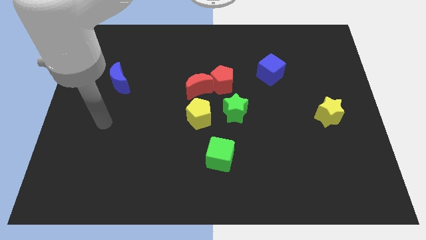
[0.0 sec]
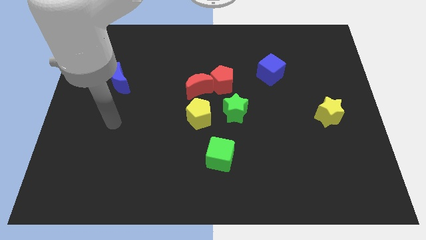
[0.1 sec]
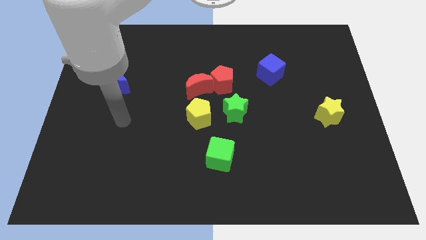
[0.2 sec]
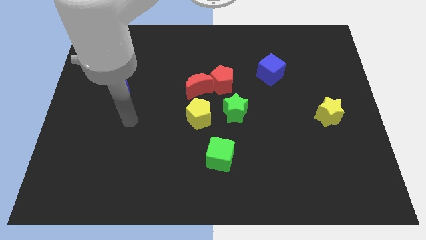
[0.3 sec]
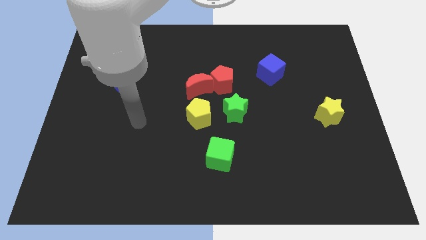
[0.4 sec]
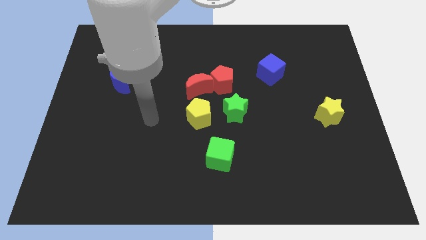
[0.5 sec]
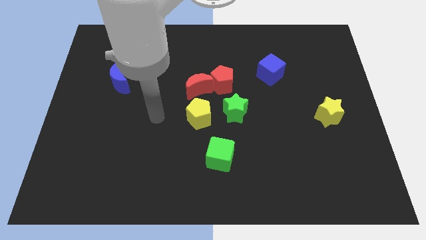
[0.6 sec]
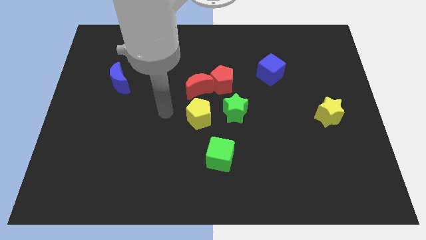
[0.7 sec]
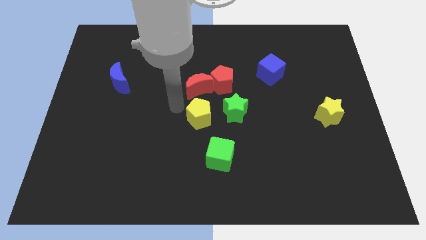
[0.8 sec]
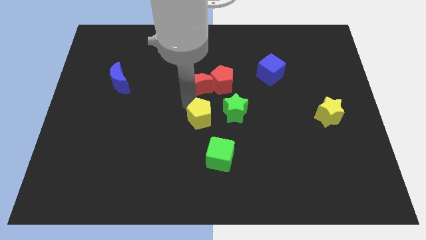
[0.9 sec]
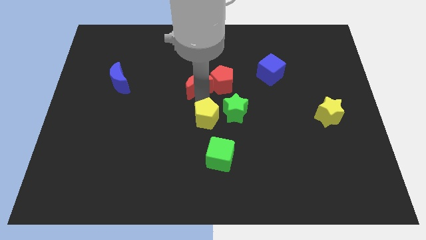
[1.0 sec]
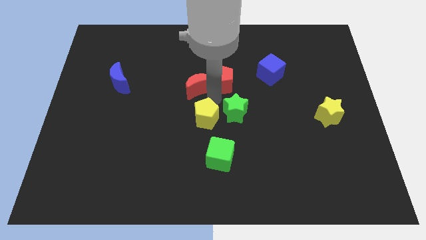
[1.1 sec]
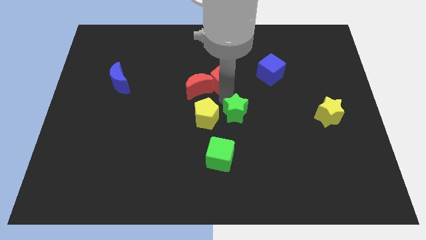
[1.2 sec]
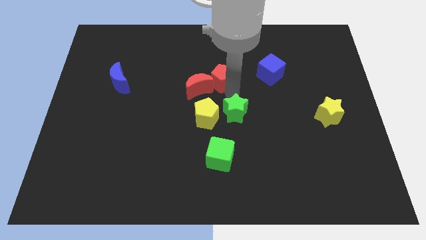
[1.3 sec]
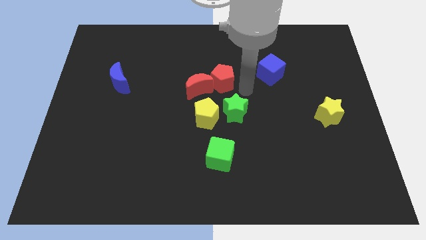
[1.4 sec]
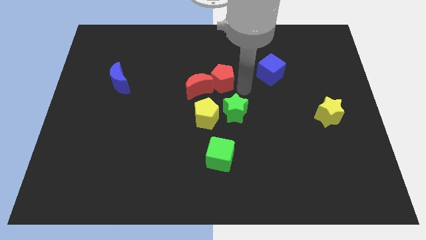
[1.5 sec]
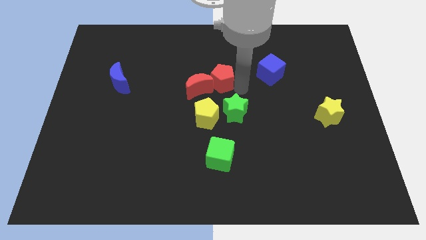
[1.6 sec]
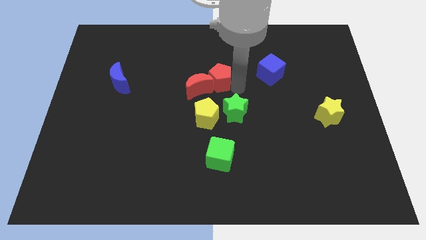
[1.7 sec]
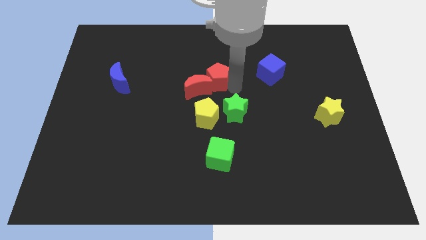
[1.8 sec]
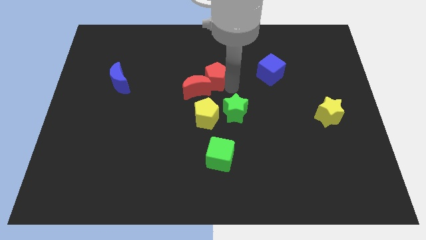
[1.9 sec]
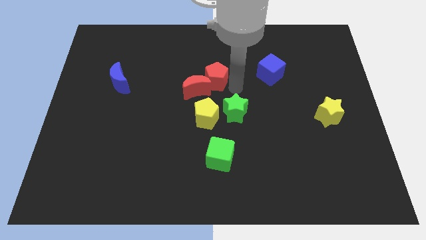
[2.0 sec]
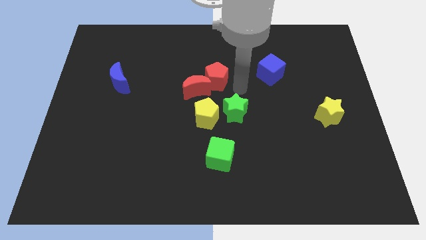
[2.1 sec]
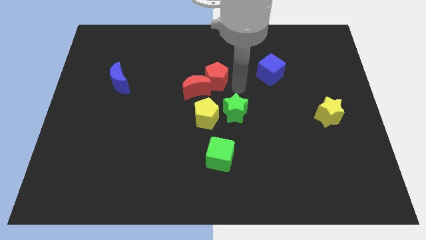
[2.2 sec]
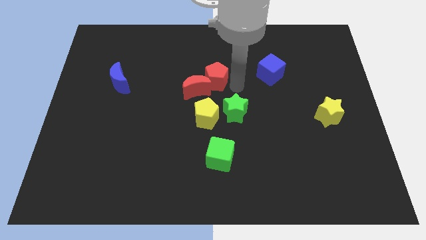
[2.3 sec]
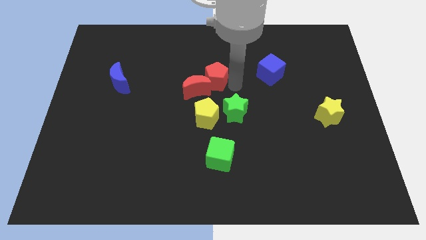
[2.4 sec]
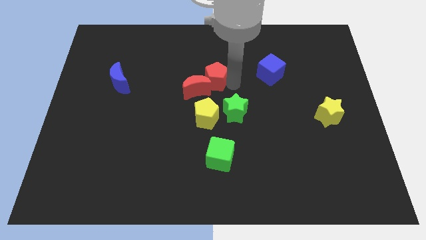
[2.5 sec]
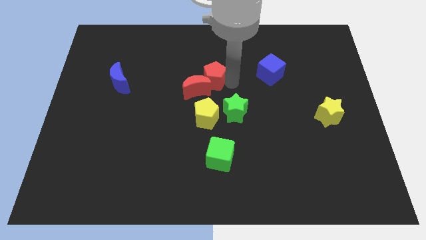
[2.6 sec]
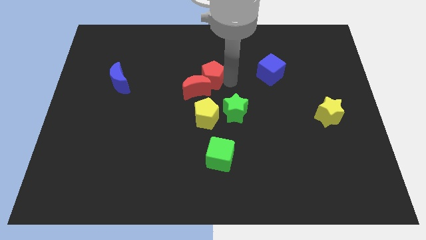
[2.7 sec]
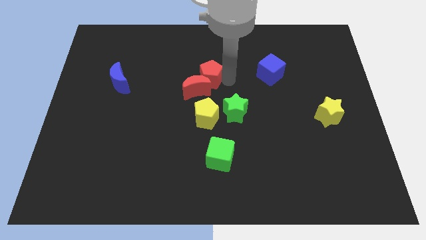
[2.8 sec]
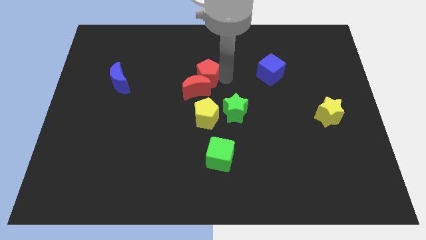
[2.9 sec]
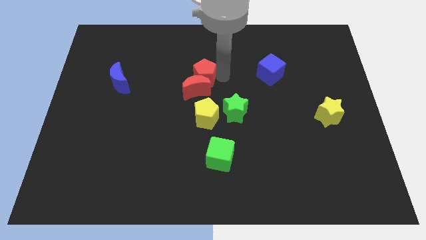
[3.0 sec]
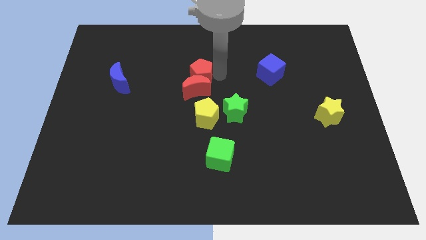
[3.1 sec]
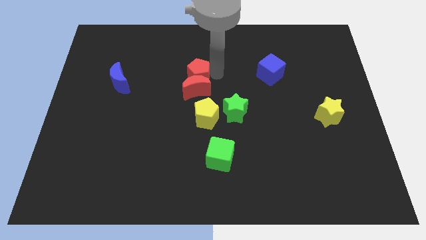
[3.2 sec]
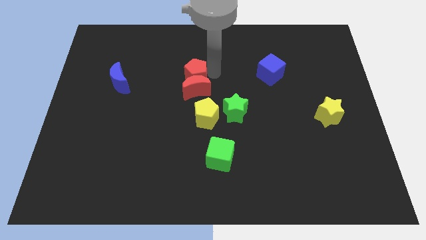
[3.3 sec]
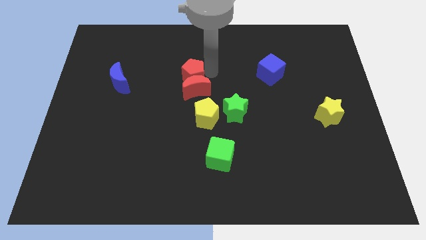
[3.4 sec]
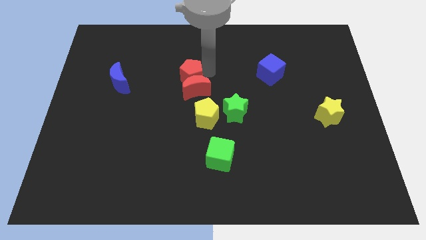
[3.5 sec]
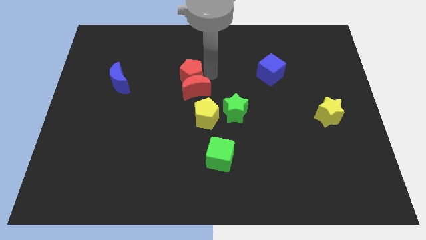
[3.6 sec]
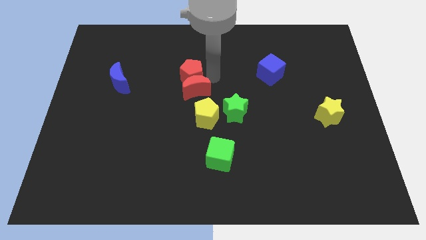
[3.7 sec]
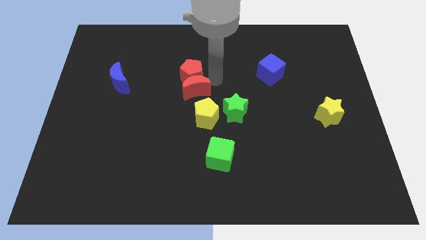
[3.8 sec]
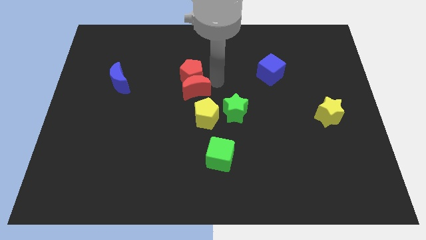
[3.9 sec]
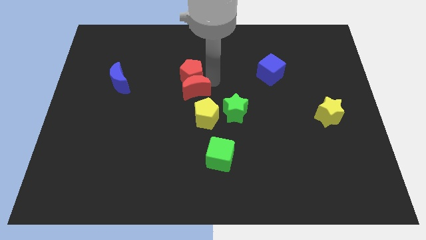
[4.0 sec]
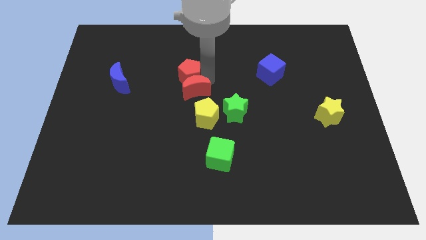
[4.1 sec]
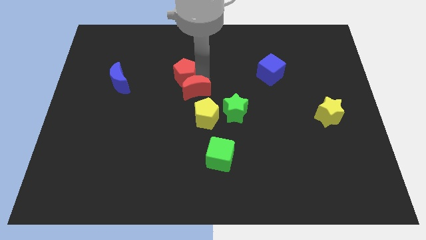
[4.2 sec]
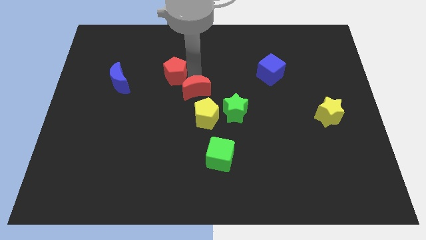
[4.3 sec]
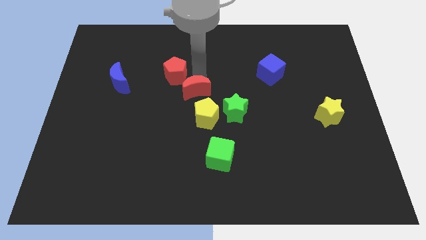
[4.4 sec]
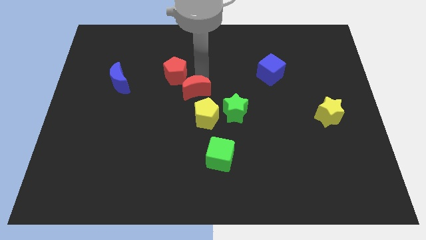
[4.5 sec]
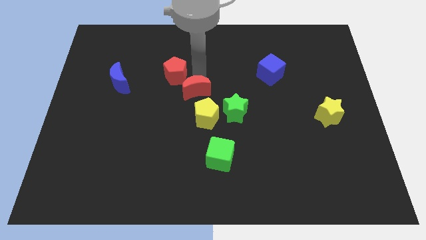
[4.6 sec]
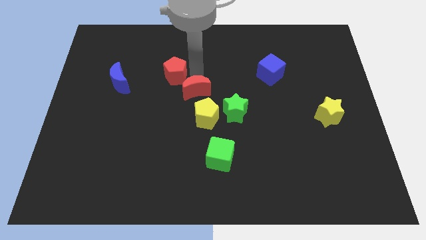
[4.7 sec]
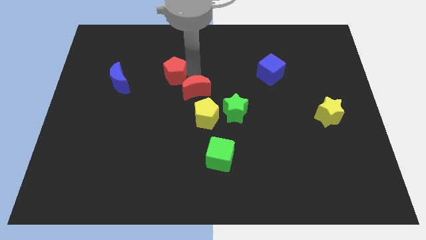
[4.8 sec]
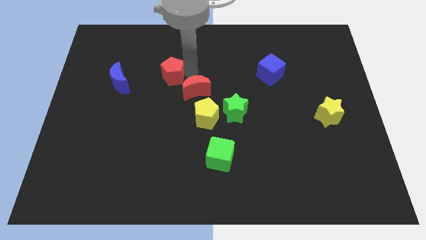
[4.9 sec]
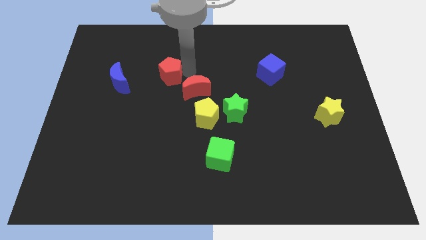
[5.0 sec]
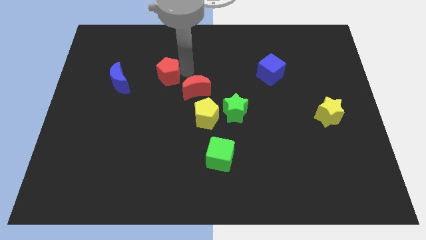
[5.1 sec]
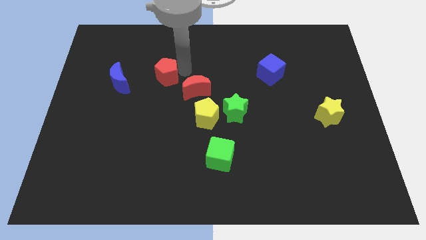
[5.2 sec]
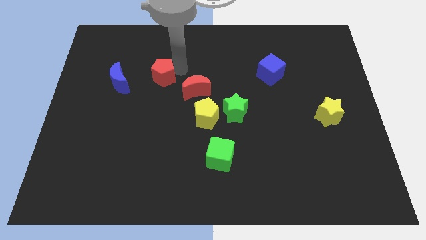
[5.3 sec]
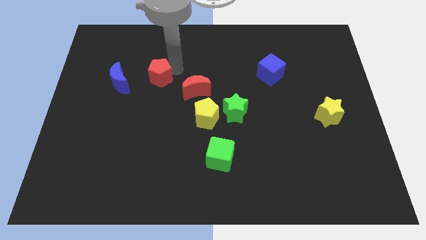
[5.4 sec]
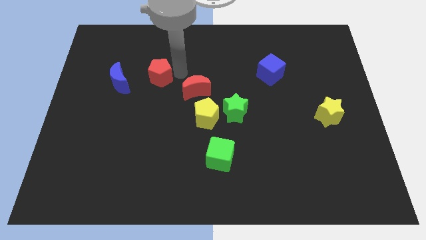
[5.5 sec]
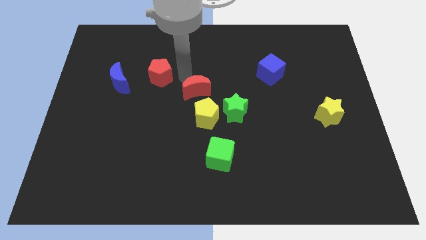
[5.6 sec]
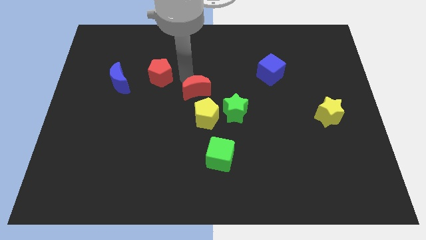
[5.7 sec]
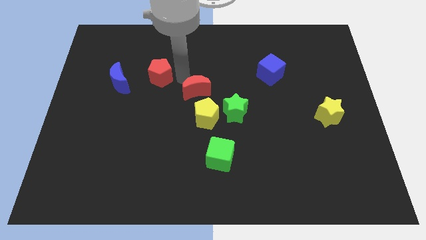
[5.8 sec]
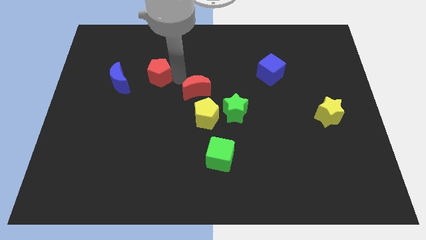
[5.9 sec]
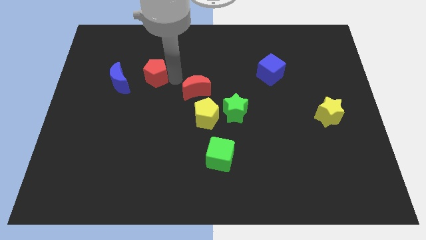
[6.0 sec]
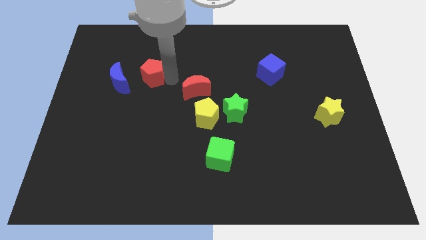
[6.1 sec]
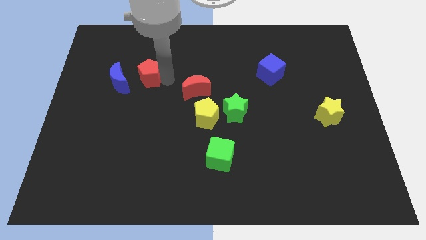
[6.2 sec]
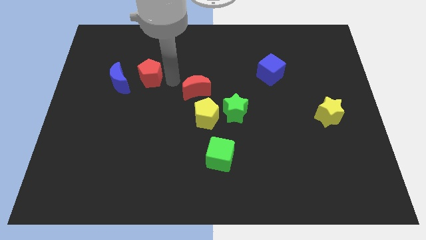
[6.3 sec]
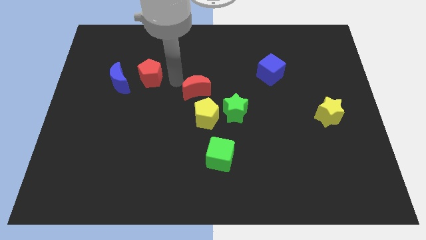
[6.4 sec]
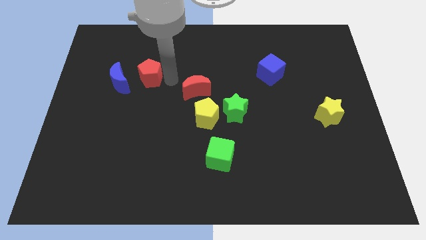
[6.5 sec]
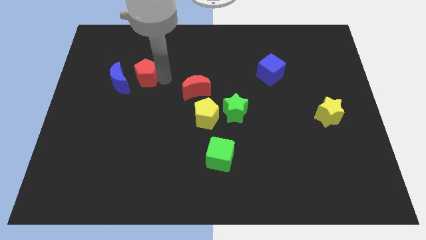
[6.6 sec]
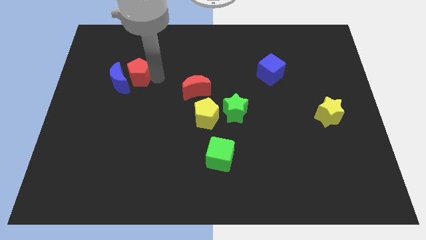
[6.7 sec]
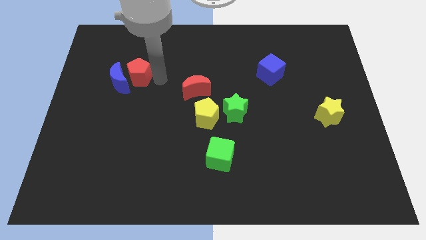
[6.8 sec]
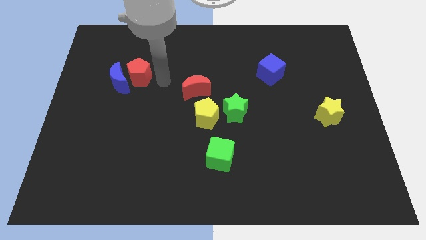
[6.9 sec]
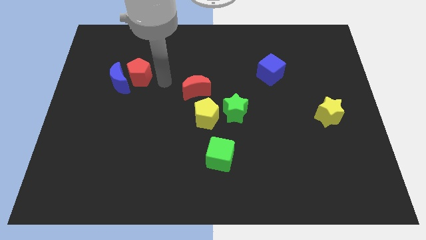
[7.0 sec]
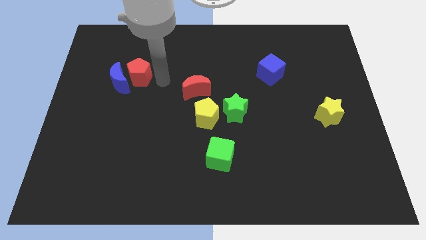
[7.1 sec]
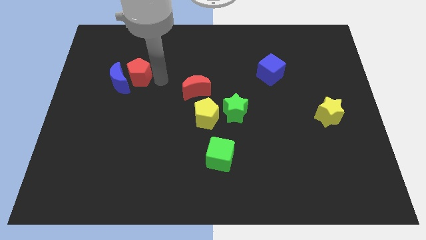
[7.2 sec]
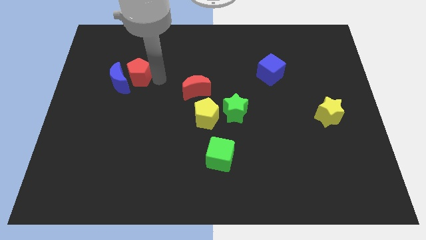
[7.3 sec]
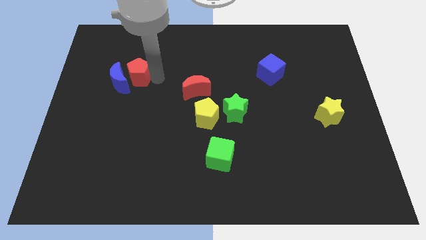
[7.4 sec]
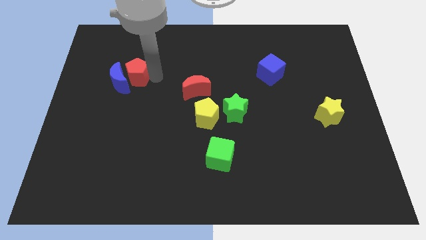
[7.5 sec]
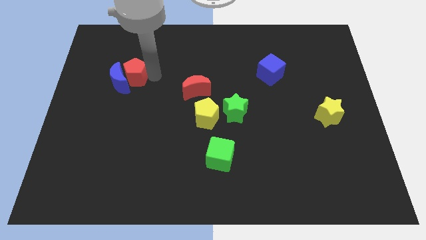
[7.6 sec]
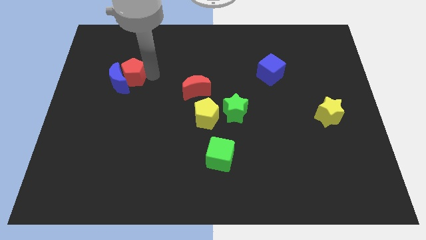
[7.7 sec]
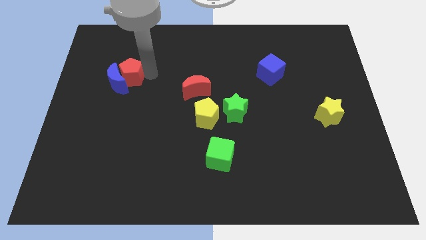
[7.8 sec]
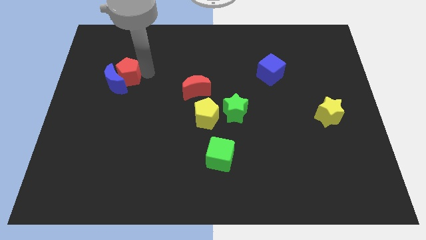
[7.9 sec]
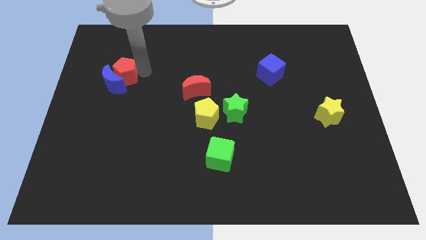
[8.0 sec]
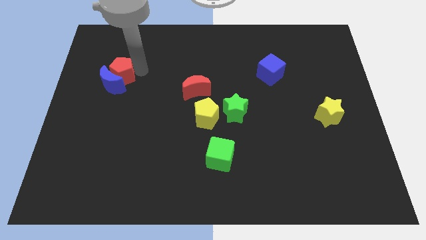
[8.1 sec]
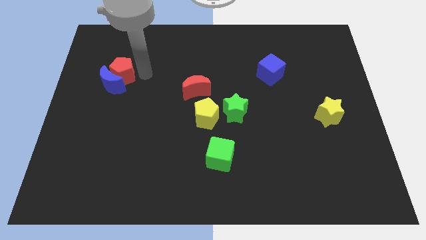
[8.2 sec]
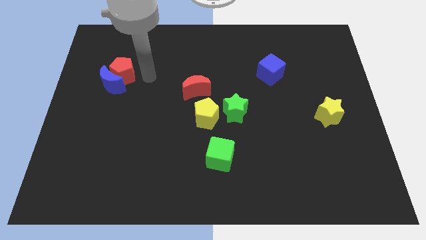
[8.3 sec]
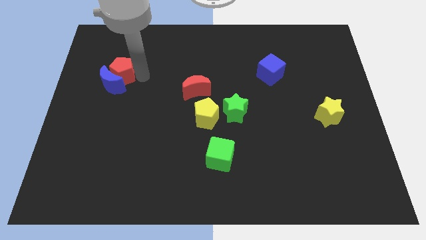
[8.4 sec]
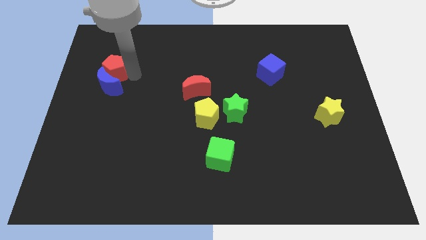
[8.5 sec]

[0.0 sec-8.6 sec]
move the red pentagon to the top left side of the blue moon
